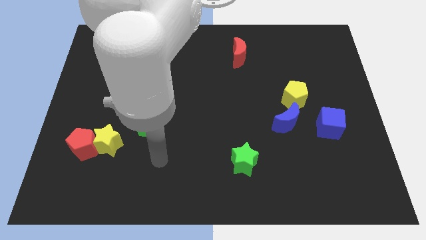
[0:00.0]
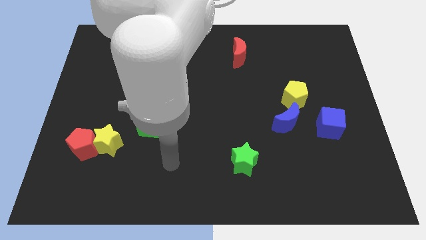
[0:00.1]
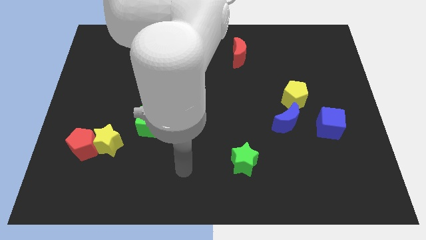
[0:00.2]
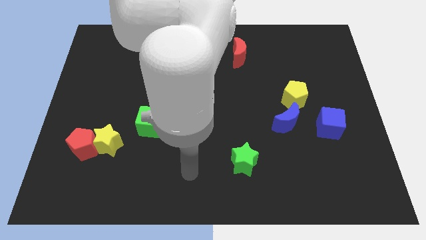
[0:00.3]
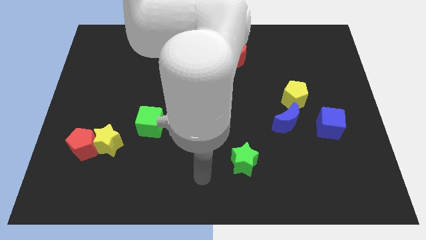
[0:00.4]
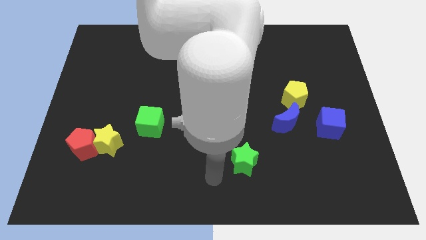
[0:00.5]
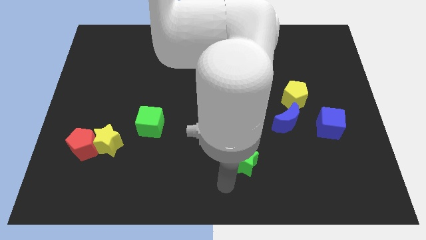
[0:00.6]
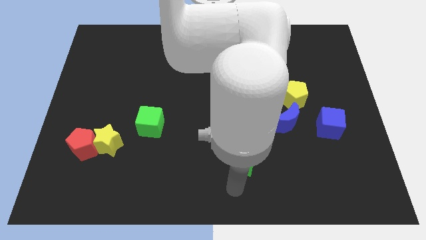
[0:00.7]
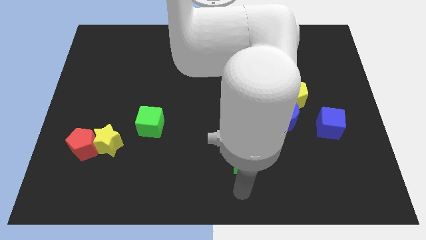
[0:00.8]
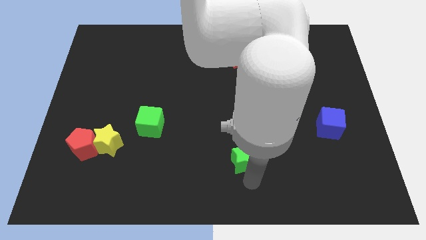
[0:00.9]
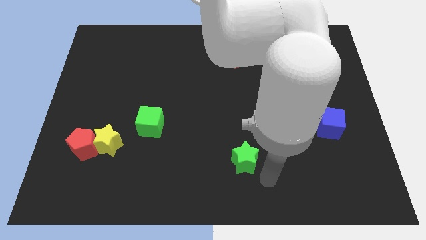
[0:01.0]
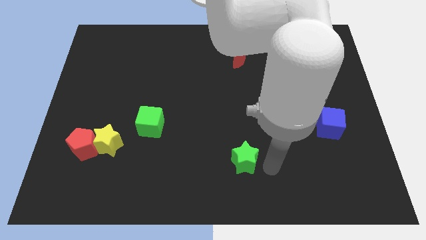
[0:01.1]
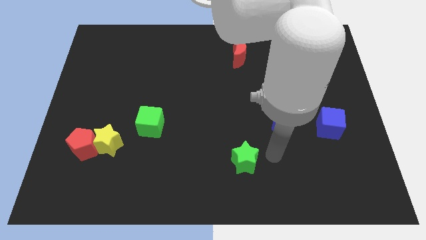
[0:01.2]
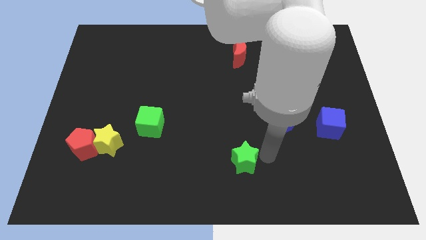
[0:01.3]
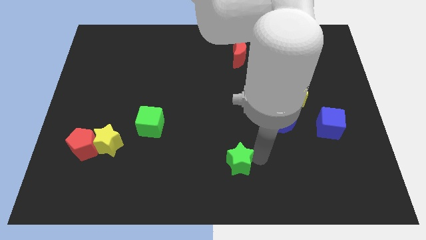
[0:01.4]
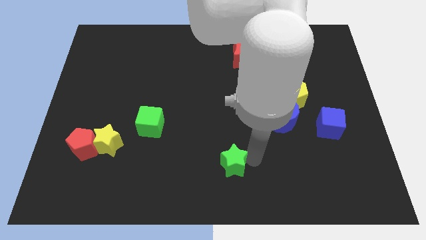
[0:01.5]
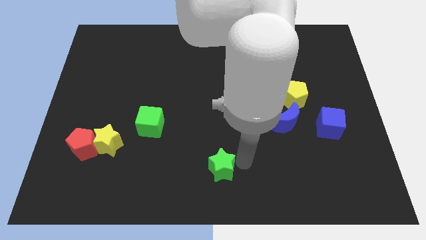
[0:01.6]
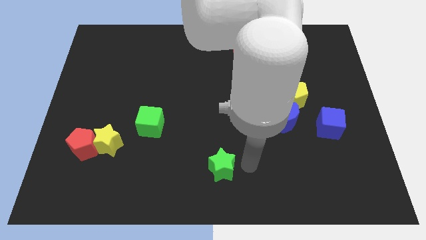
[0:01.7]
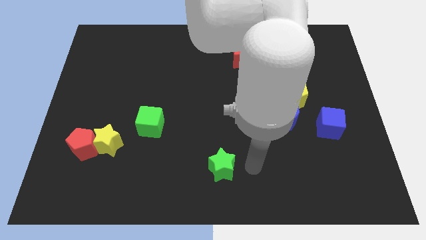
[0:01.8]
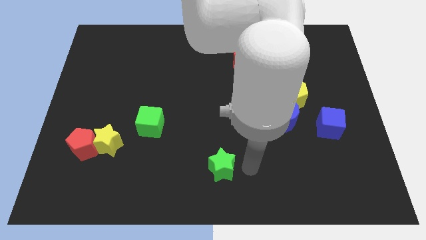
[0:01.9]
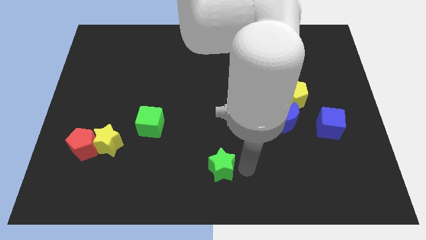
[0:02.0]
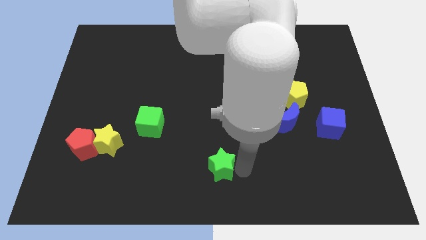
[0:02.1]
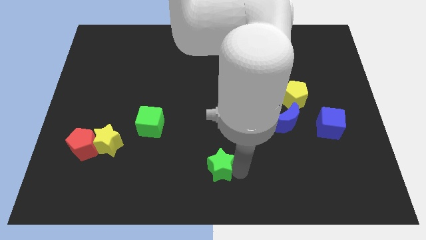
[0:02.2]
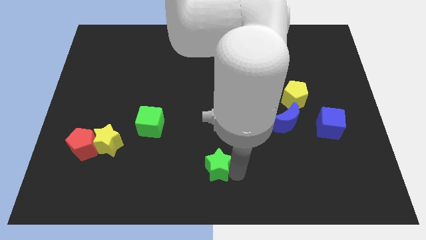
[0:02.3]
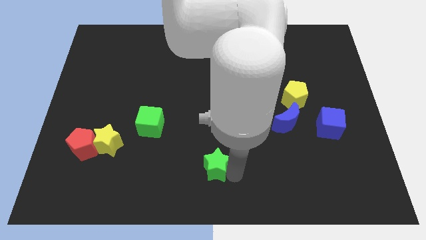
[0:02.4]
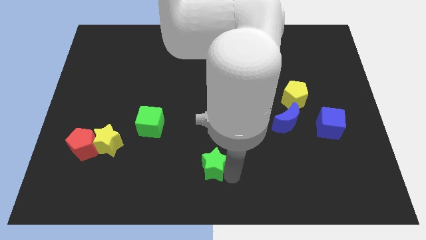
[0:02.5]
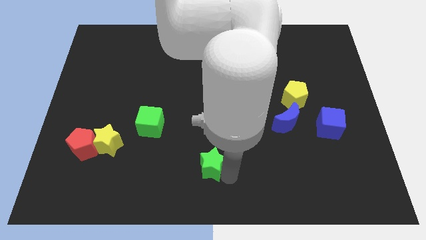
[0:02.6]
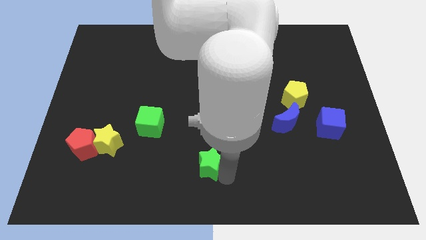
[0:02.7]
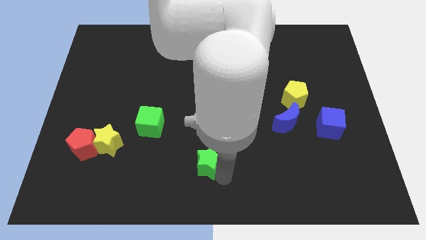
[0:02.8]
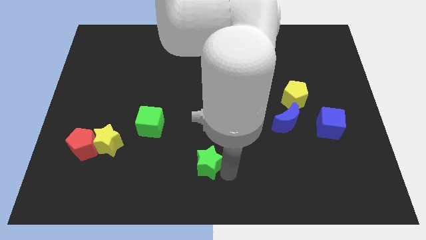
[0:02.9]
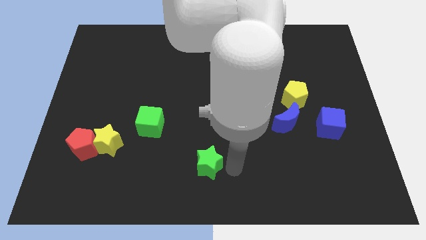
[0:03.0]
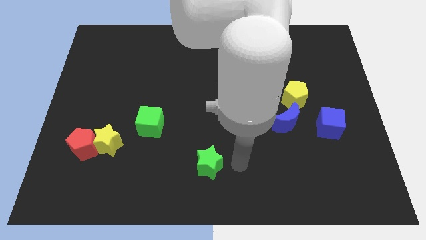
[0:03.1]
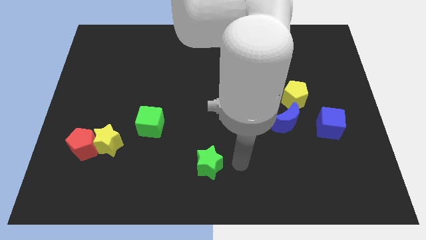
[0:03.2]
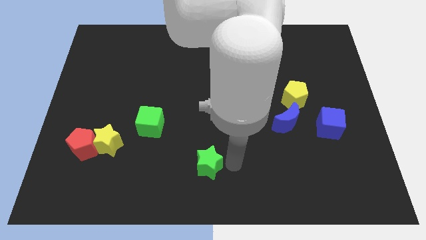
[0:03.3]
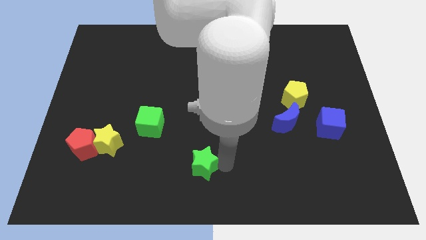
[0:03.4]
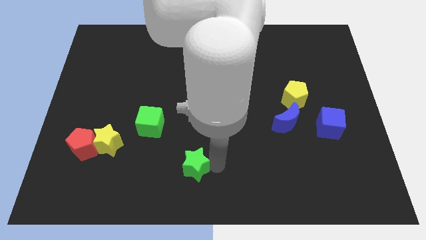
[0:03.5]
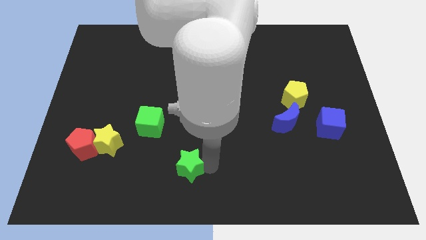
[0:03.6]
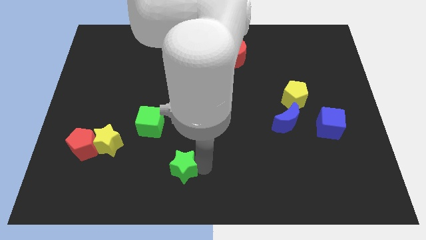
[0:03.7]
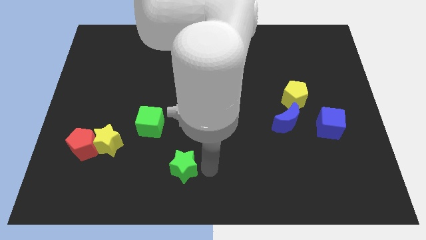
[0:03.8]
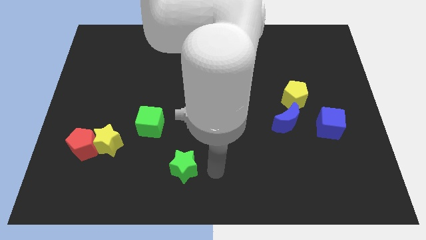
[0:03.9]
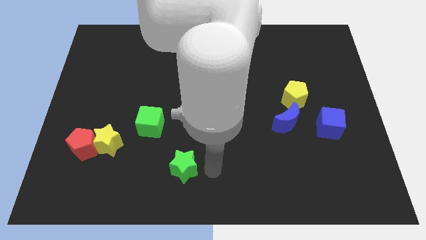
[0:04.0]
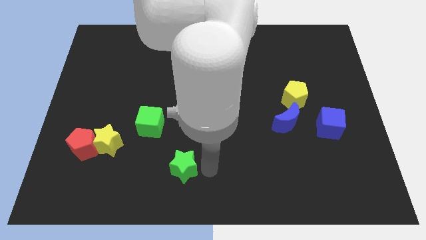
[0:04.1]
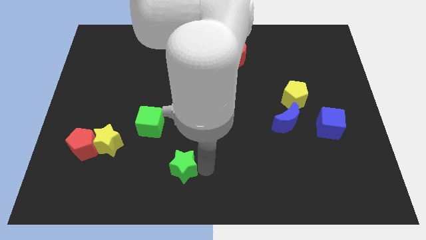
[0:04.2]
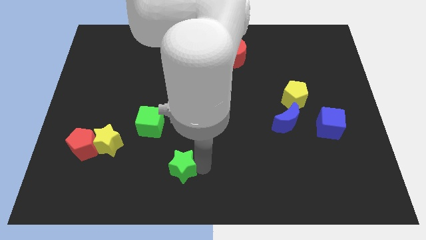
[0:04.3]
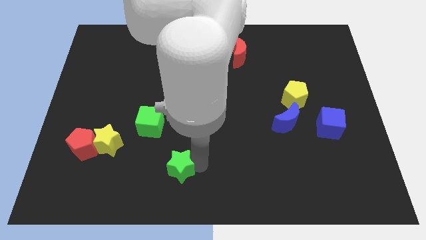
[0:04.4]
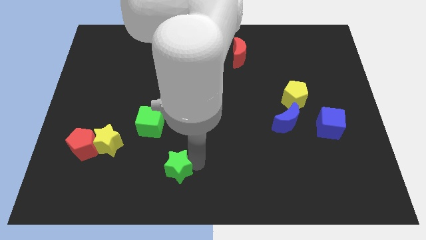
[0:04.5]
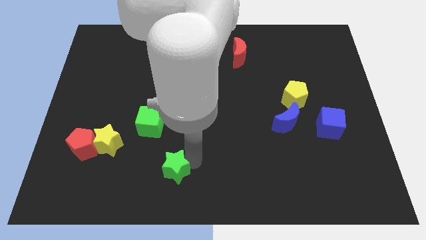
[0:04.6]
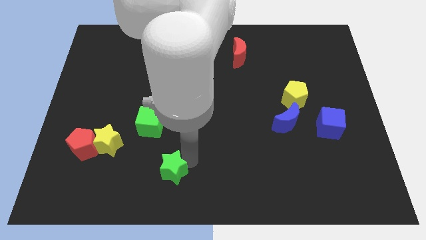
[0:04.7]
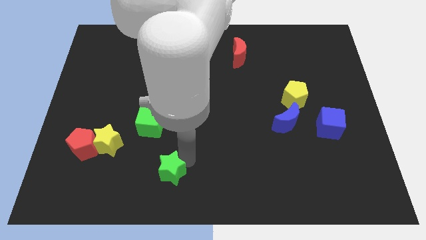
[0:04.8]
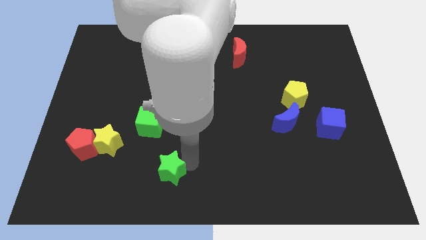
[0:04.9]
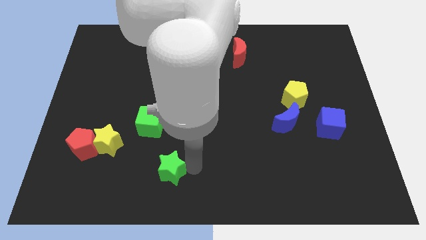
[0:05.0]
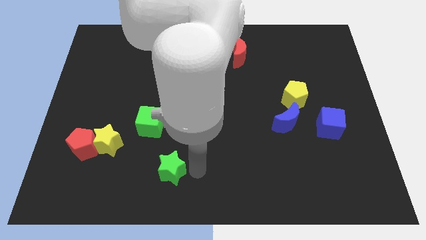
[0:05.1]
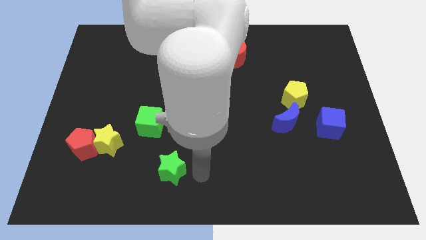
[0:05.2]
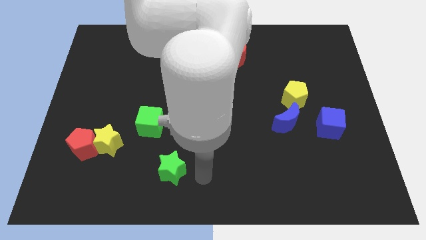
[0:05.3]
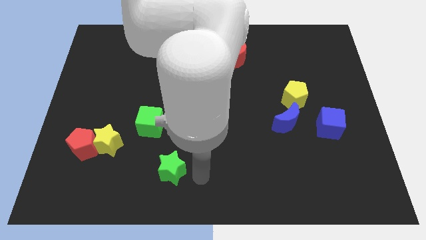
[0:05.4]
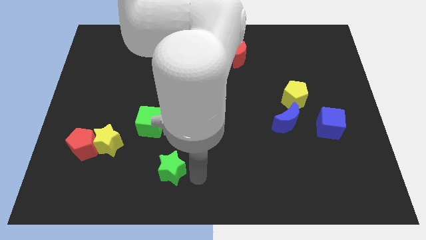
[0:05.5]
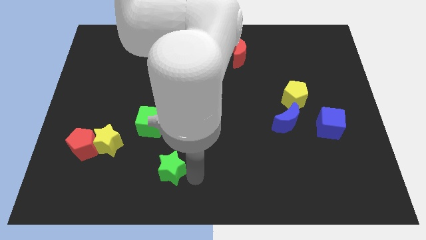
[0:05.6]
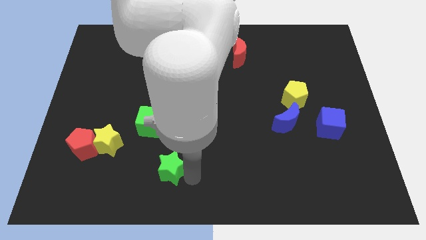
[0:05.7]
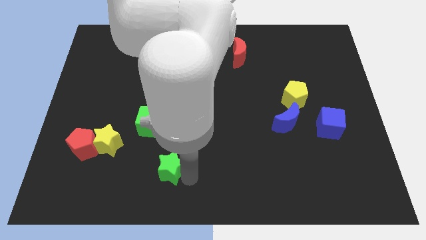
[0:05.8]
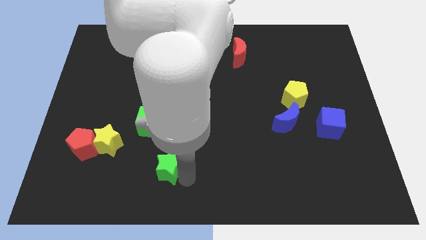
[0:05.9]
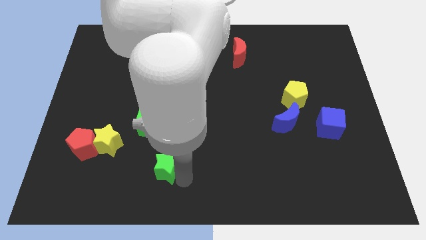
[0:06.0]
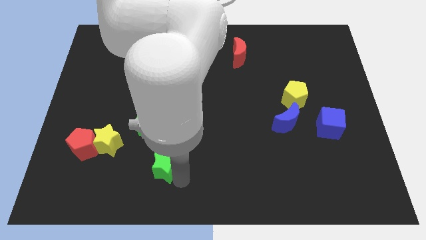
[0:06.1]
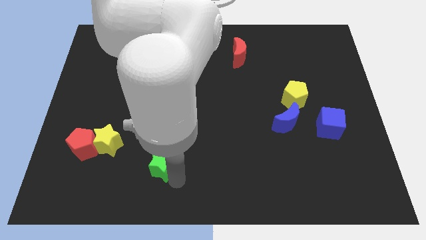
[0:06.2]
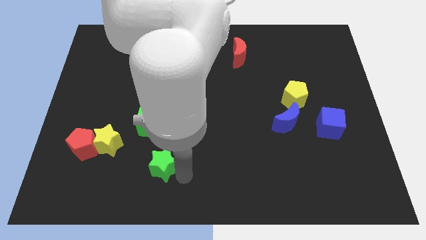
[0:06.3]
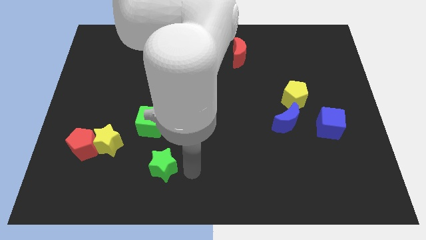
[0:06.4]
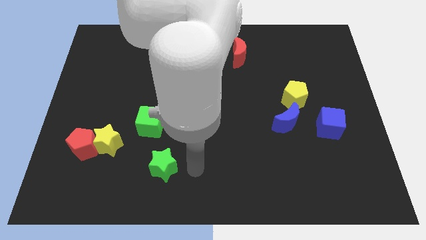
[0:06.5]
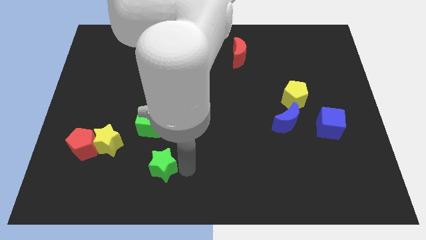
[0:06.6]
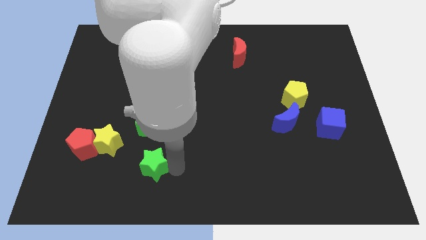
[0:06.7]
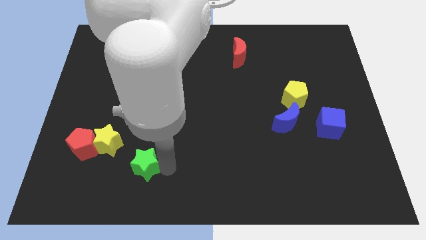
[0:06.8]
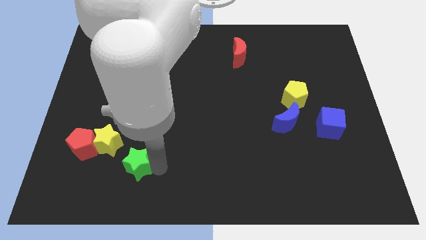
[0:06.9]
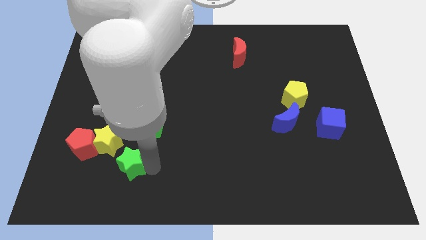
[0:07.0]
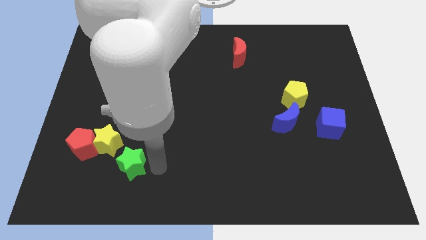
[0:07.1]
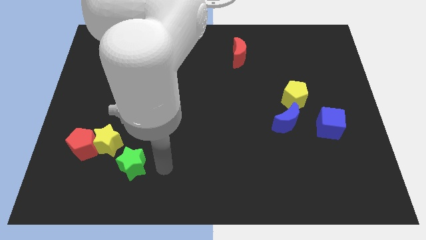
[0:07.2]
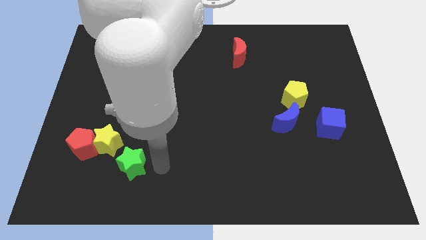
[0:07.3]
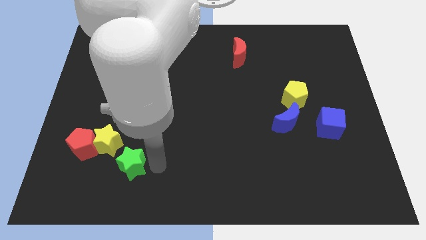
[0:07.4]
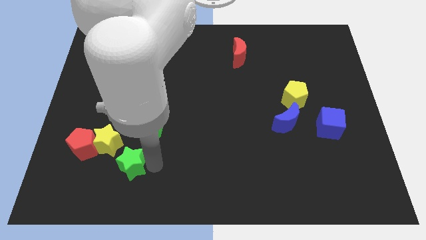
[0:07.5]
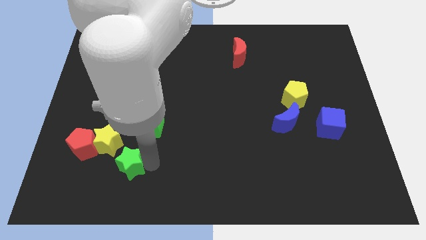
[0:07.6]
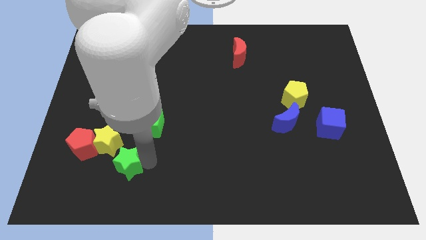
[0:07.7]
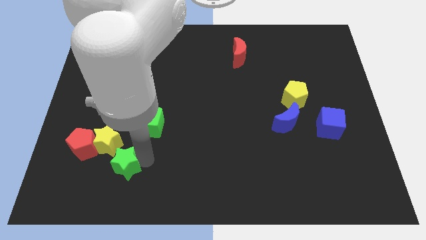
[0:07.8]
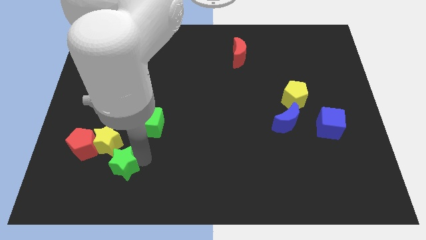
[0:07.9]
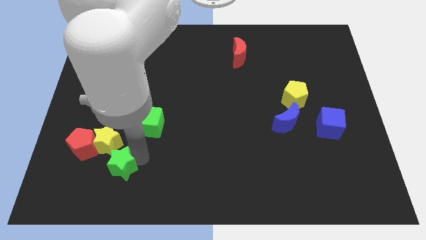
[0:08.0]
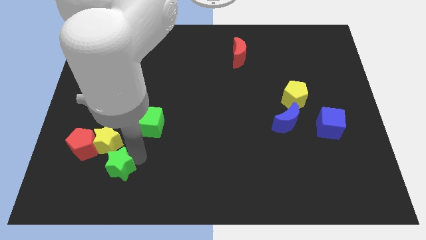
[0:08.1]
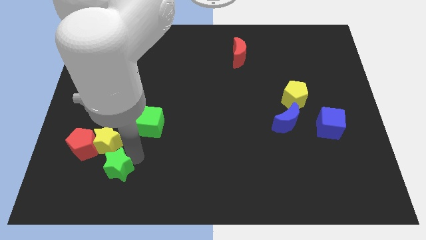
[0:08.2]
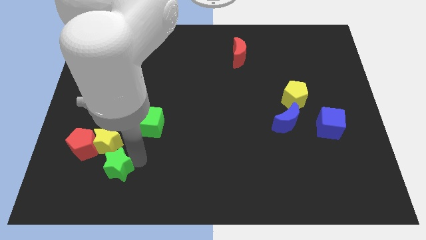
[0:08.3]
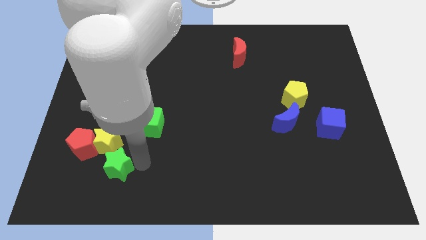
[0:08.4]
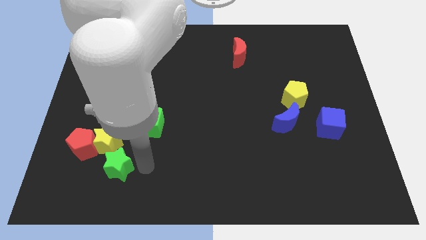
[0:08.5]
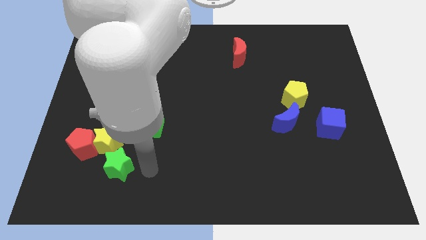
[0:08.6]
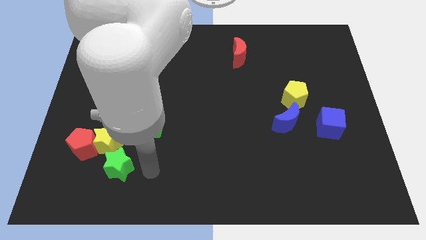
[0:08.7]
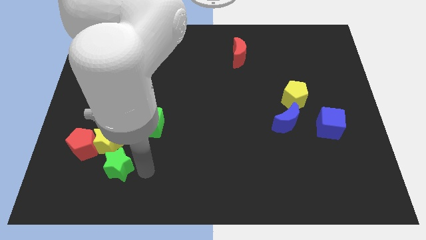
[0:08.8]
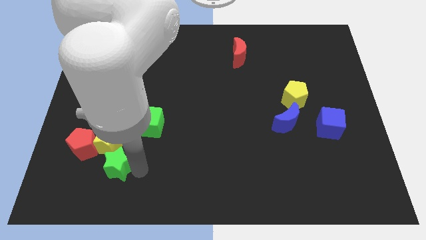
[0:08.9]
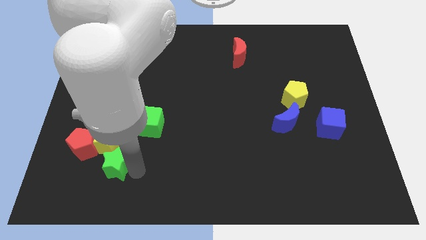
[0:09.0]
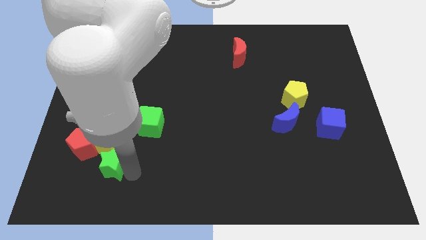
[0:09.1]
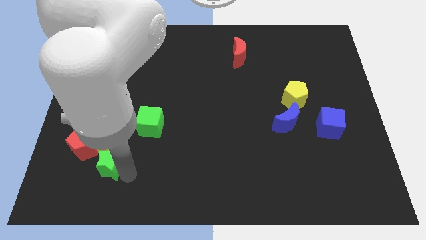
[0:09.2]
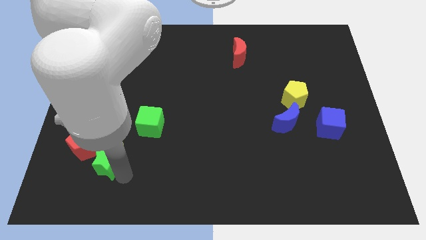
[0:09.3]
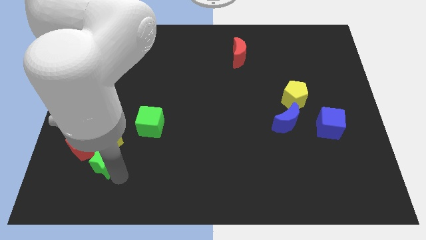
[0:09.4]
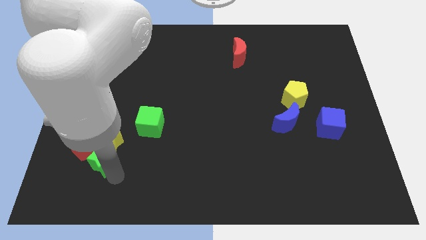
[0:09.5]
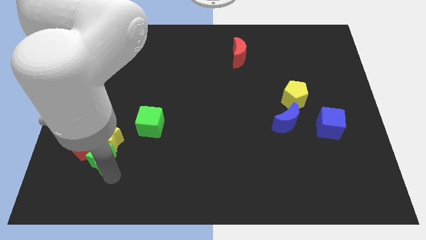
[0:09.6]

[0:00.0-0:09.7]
push the green star close to the red pentagon
